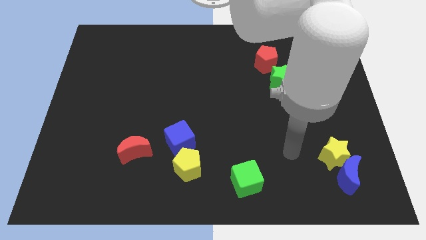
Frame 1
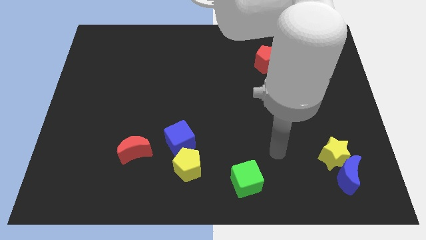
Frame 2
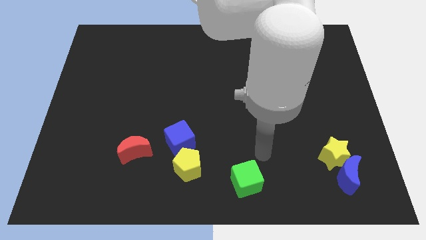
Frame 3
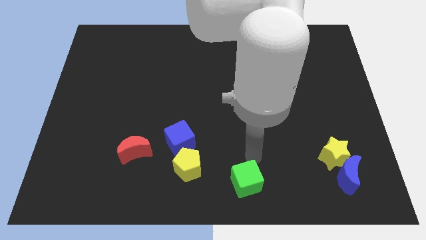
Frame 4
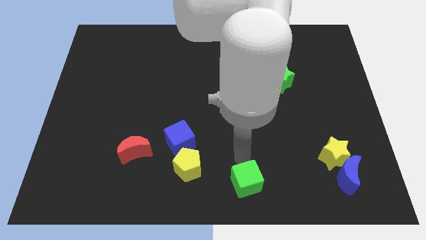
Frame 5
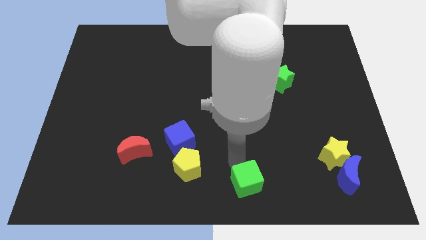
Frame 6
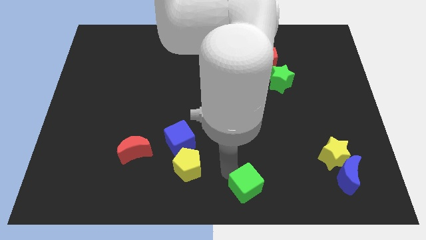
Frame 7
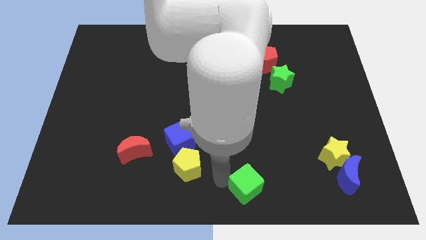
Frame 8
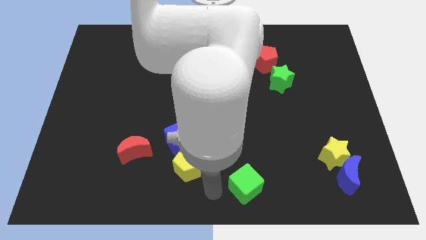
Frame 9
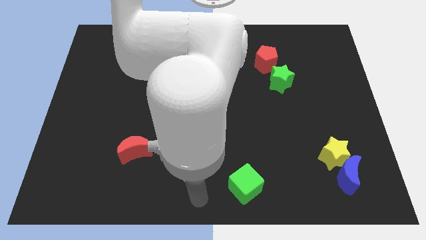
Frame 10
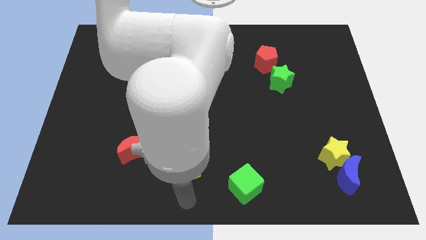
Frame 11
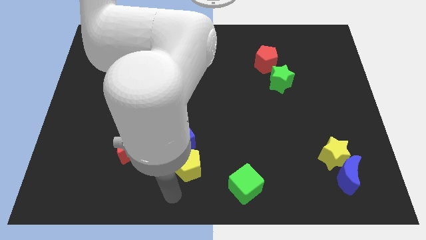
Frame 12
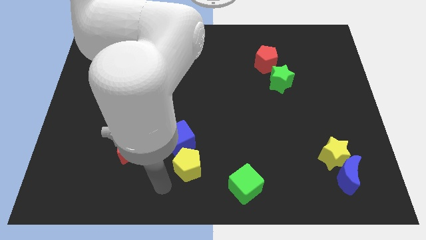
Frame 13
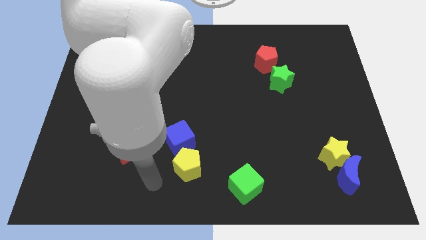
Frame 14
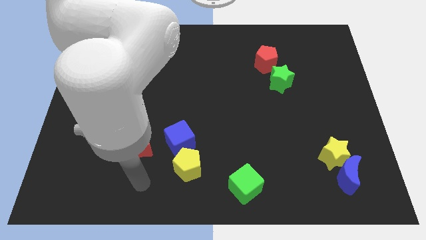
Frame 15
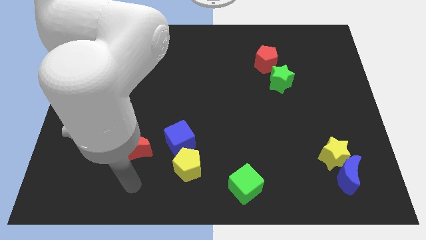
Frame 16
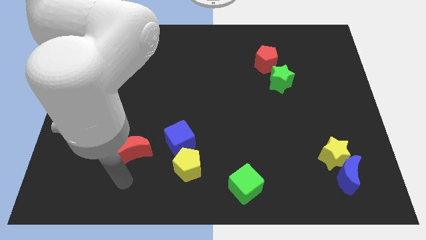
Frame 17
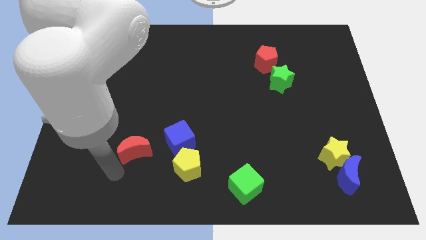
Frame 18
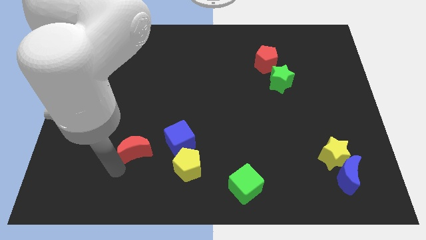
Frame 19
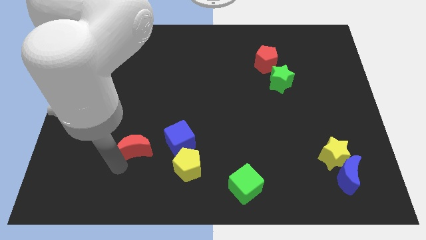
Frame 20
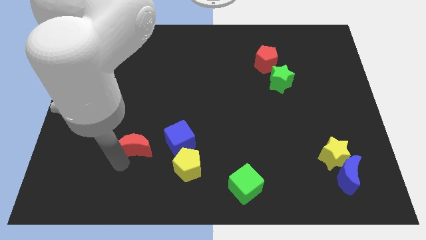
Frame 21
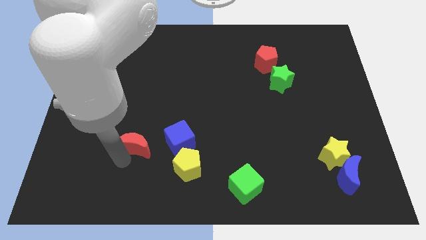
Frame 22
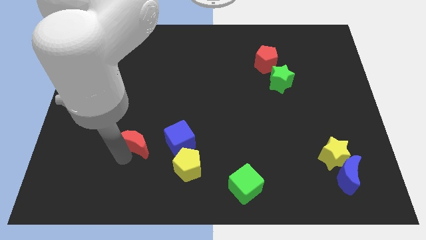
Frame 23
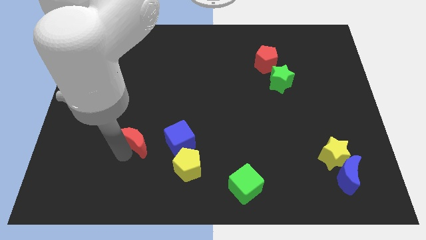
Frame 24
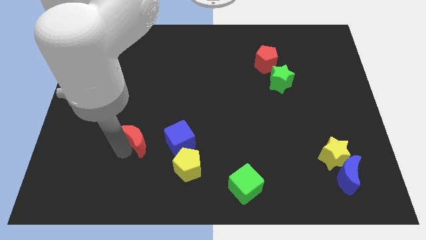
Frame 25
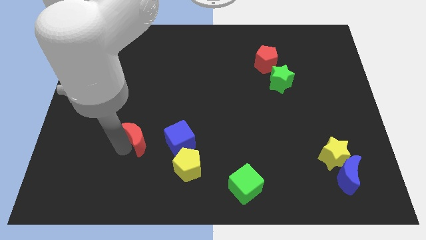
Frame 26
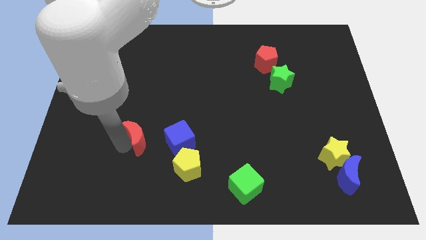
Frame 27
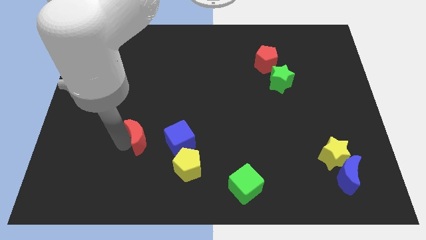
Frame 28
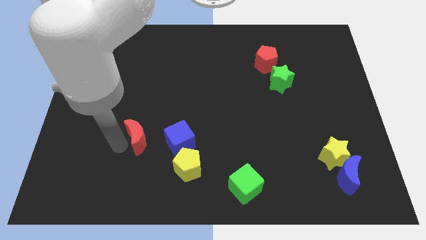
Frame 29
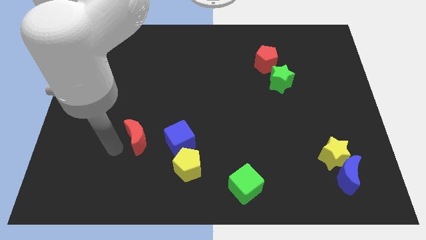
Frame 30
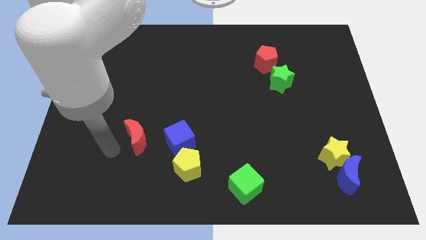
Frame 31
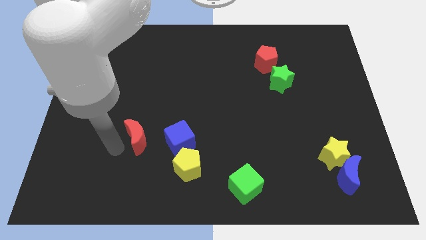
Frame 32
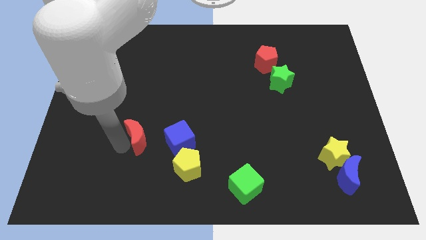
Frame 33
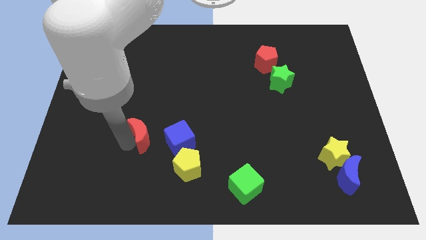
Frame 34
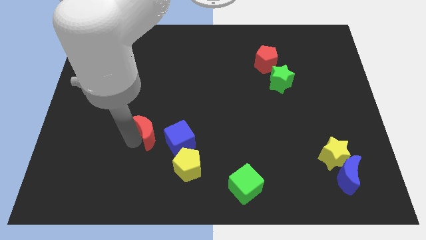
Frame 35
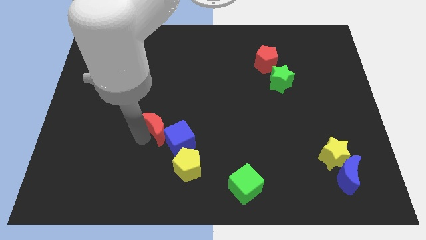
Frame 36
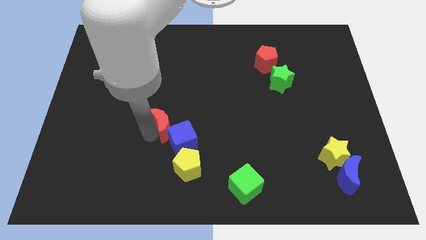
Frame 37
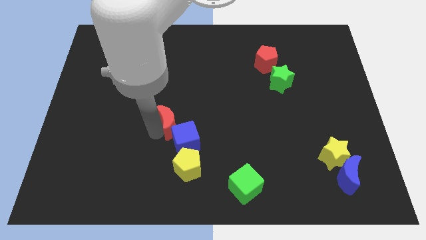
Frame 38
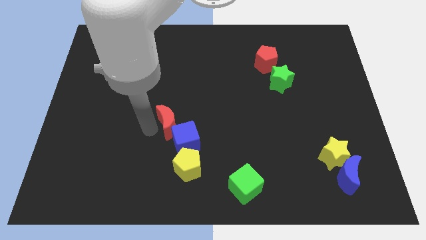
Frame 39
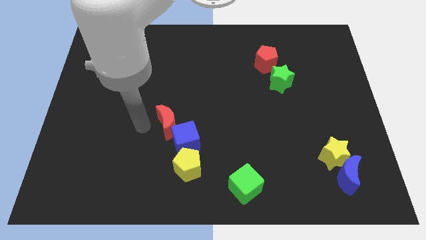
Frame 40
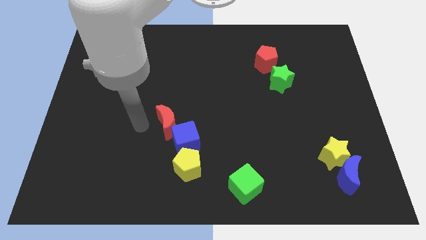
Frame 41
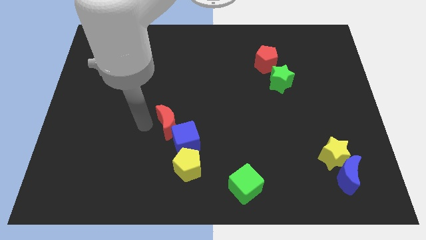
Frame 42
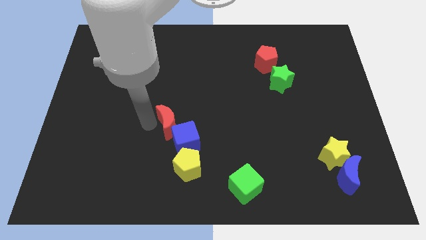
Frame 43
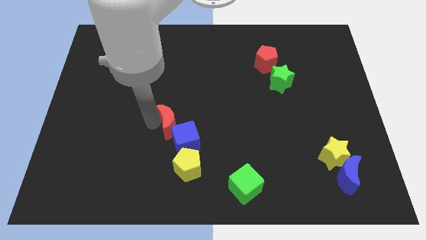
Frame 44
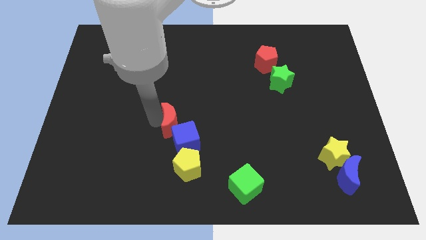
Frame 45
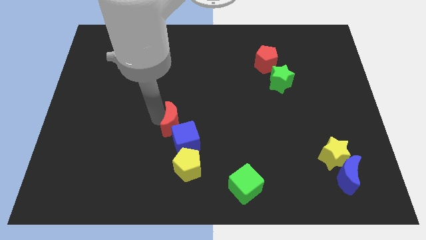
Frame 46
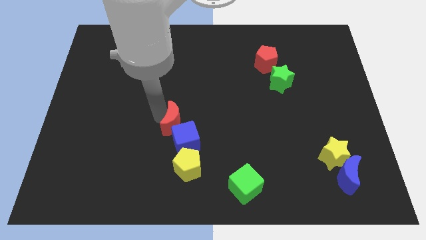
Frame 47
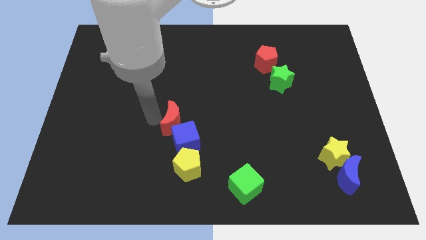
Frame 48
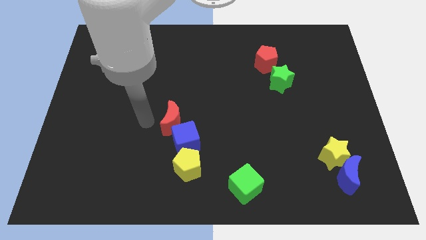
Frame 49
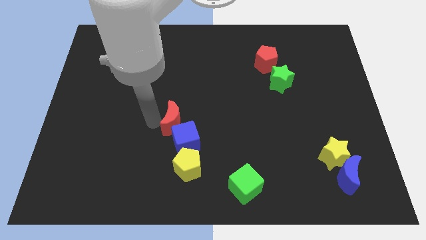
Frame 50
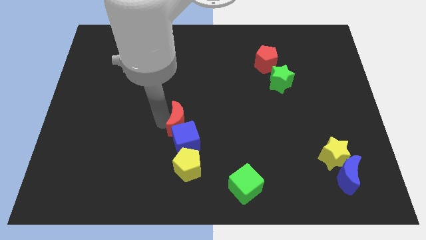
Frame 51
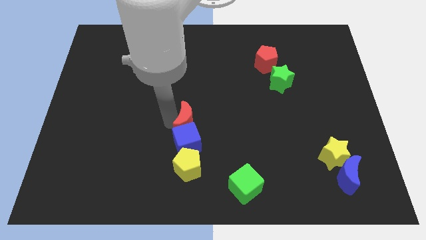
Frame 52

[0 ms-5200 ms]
move the red moon diagonally up and to the right of the blue cube

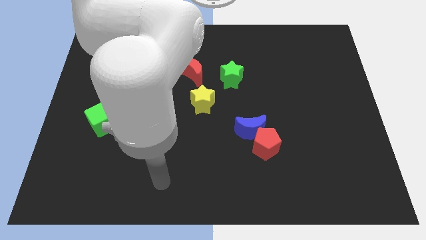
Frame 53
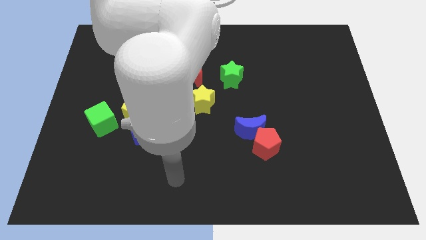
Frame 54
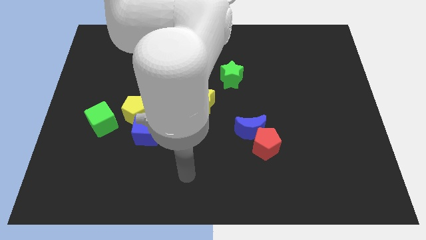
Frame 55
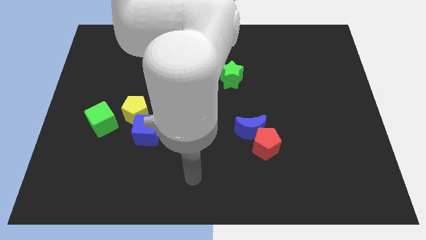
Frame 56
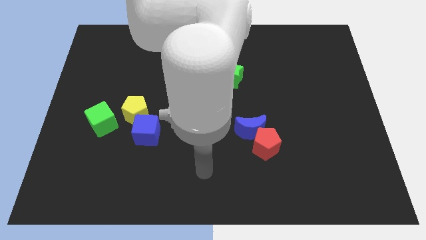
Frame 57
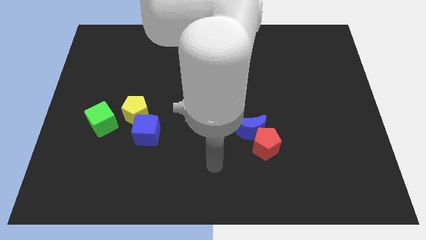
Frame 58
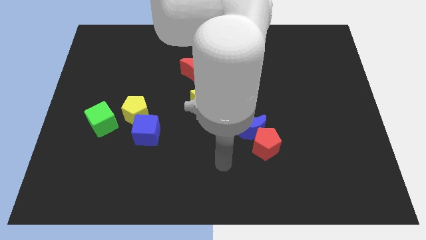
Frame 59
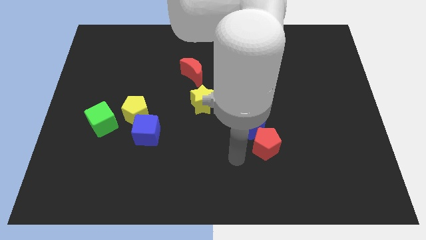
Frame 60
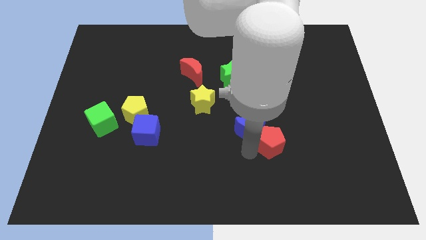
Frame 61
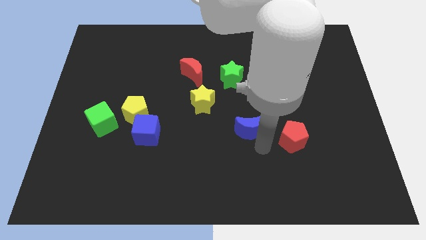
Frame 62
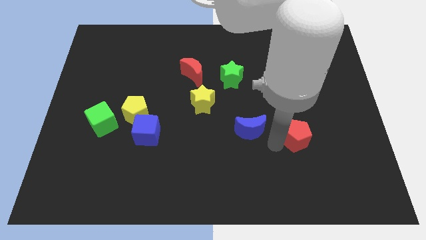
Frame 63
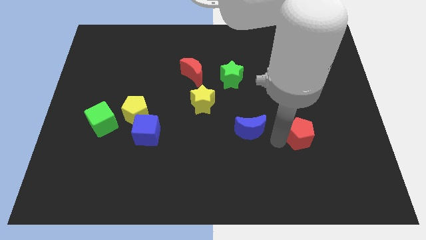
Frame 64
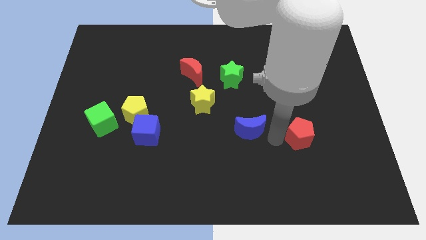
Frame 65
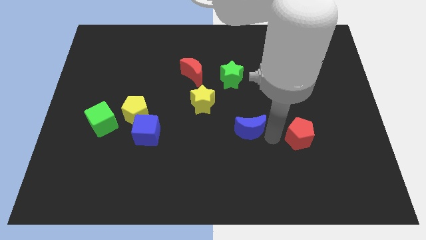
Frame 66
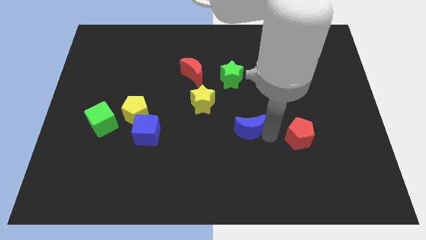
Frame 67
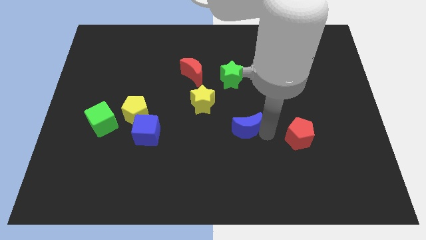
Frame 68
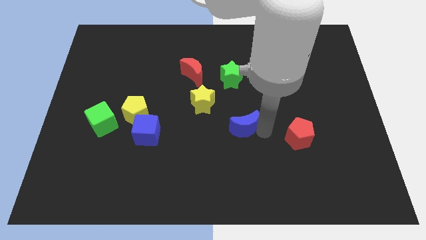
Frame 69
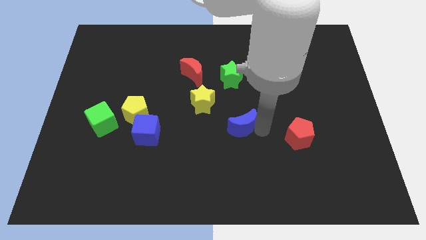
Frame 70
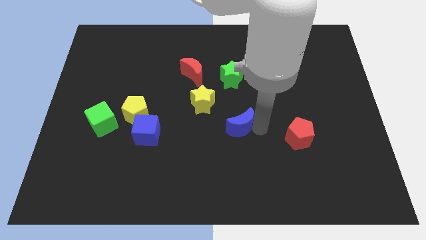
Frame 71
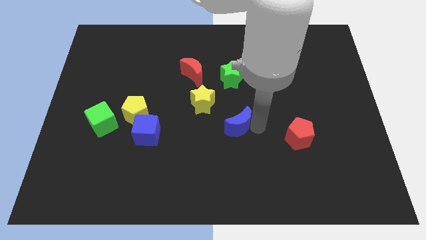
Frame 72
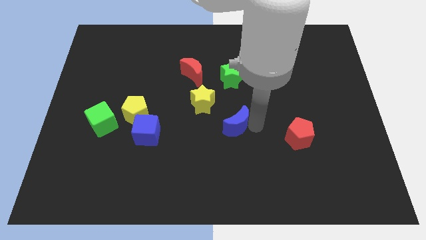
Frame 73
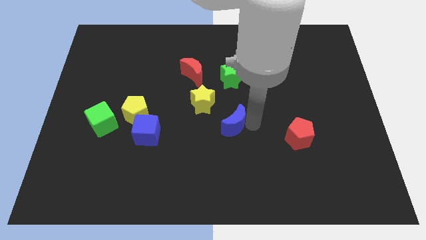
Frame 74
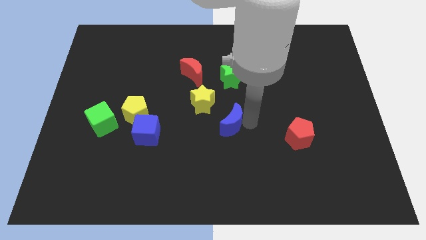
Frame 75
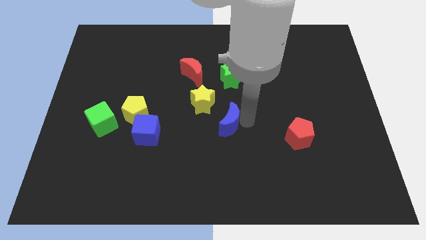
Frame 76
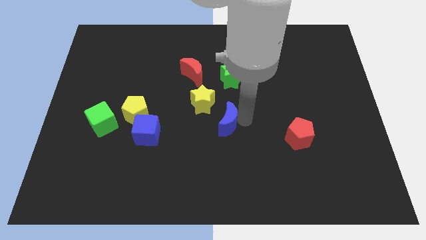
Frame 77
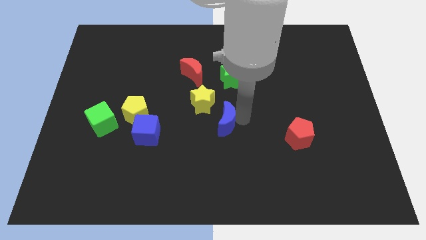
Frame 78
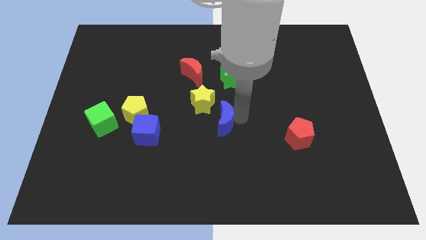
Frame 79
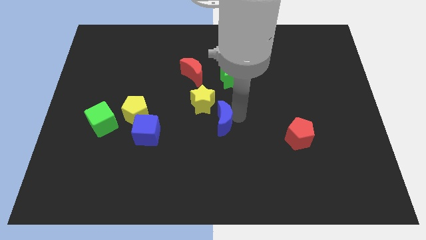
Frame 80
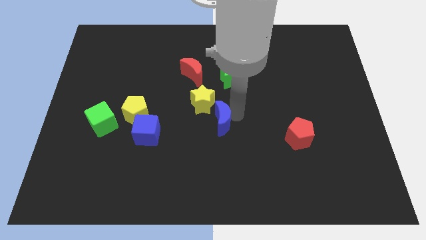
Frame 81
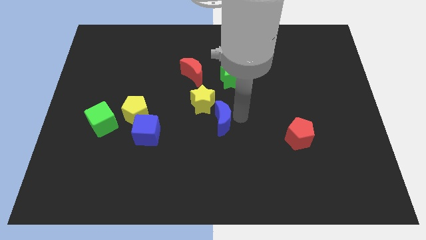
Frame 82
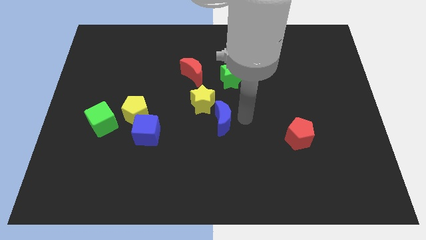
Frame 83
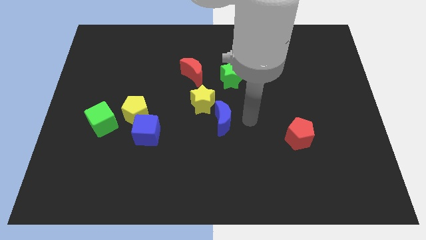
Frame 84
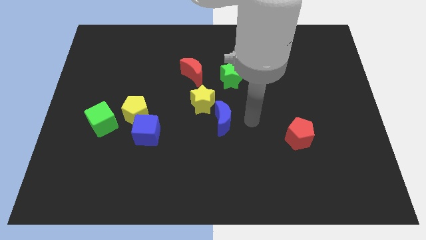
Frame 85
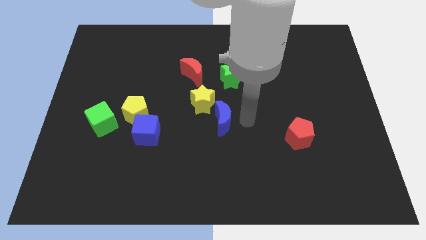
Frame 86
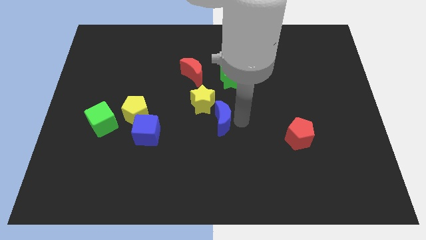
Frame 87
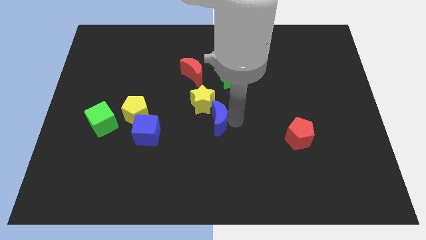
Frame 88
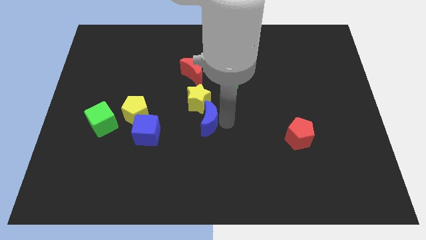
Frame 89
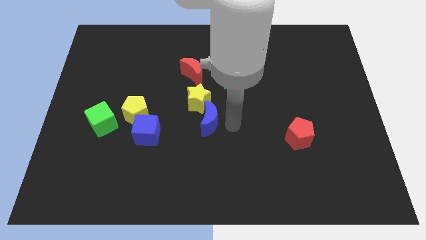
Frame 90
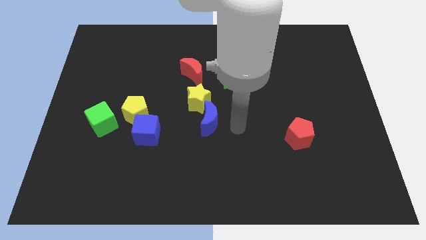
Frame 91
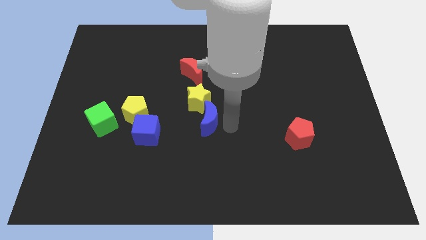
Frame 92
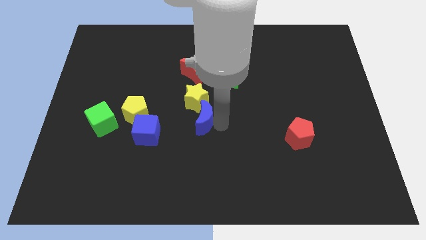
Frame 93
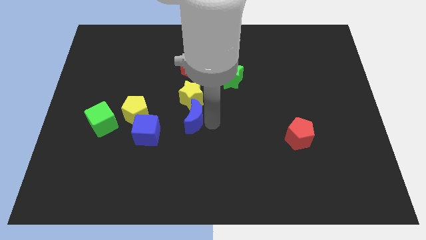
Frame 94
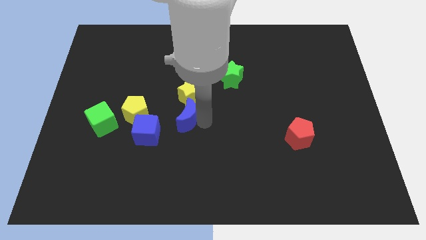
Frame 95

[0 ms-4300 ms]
slide the blue moon to the top right of the blue cube
